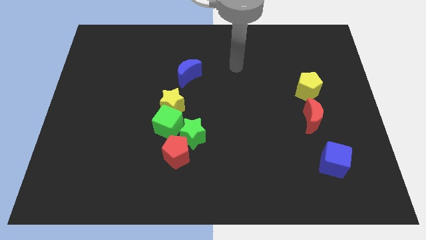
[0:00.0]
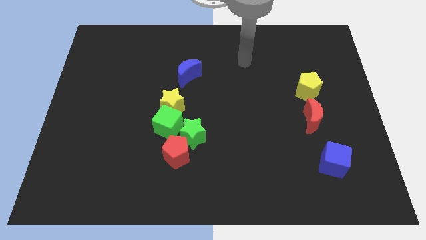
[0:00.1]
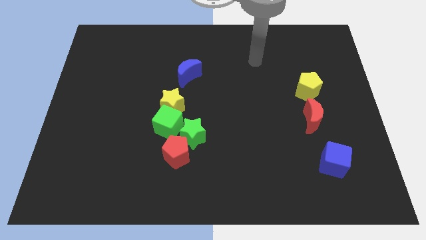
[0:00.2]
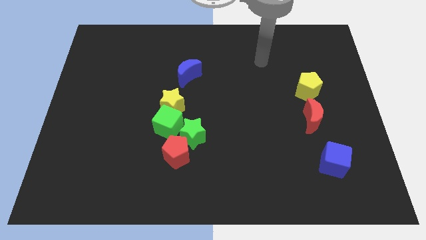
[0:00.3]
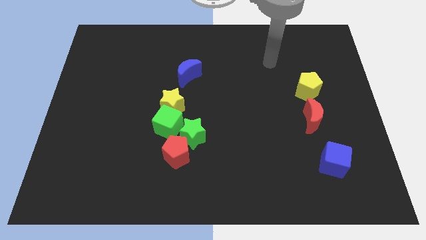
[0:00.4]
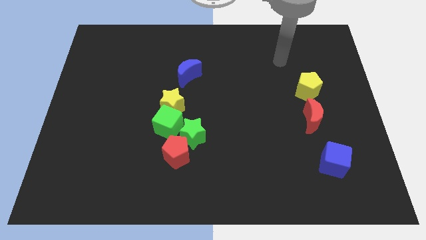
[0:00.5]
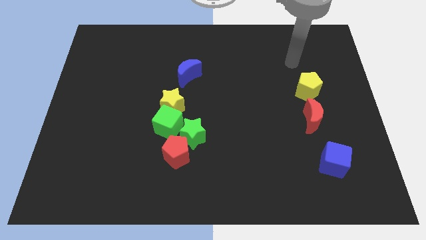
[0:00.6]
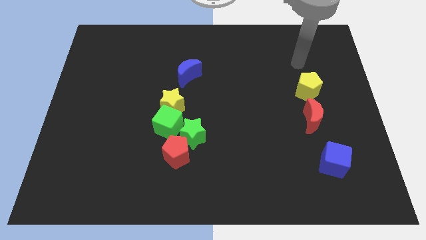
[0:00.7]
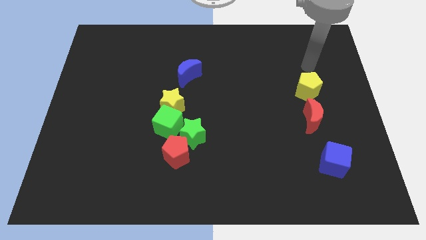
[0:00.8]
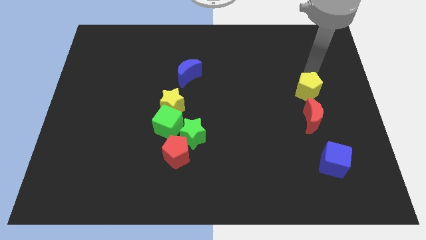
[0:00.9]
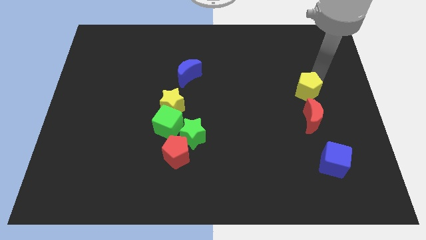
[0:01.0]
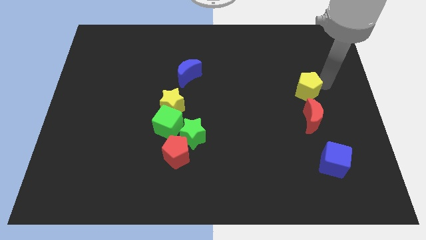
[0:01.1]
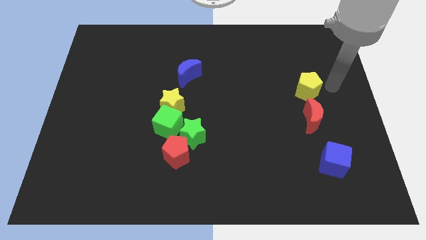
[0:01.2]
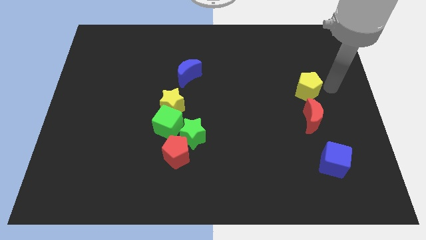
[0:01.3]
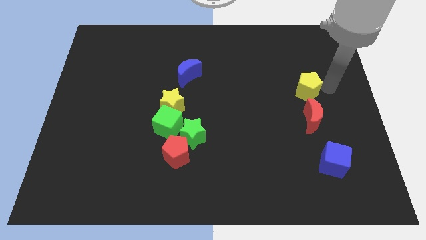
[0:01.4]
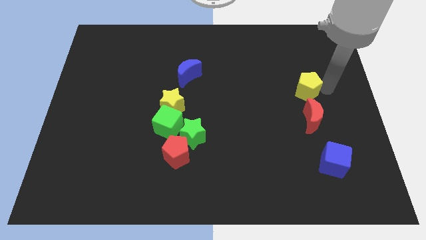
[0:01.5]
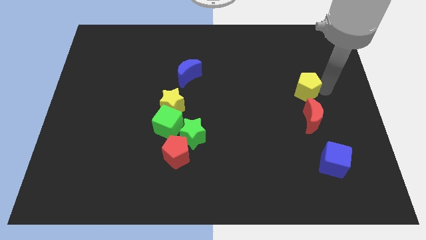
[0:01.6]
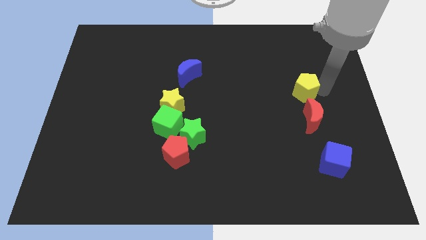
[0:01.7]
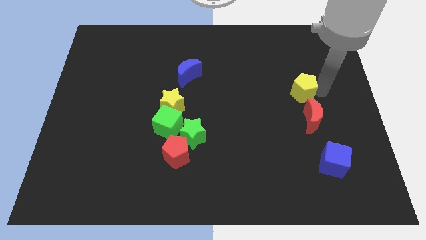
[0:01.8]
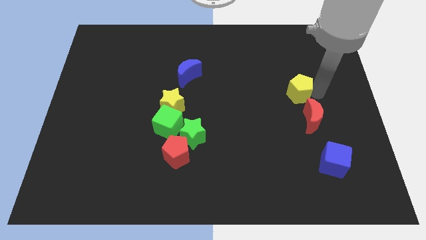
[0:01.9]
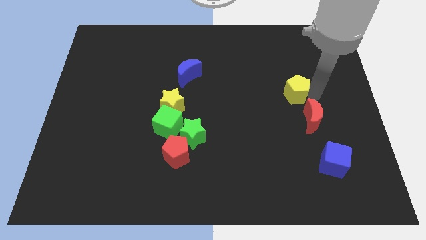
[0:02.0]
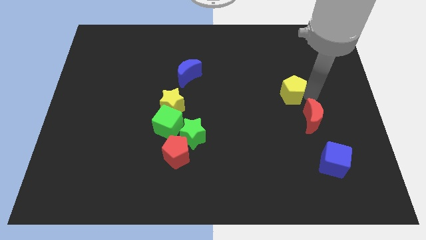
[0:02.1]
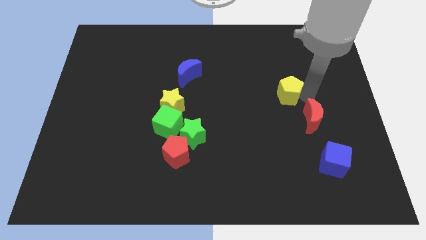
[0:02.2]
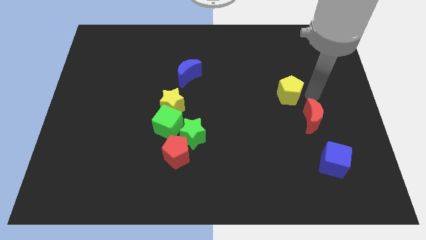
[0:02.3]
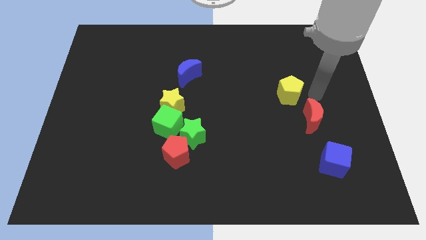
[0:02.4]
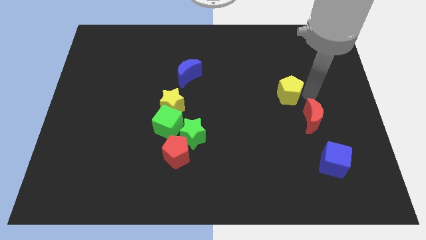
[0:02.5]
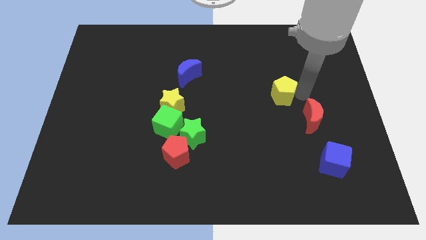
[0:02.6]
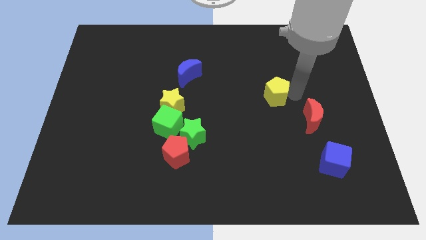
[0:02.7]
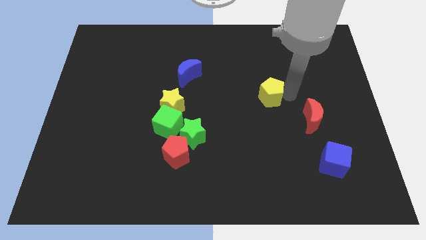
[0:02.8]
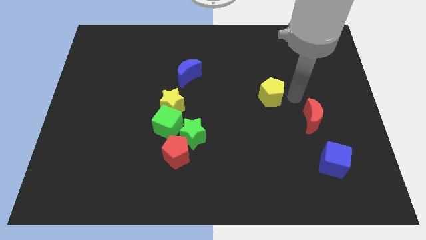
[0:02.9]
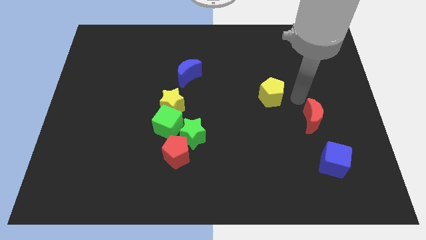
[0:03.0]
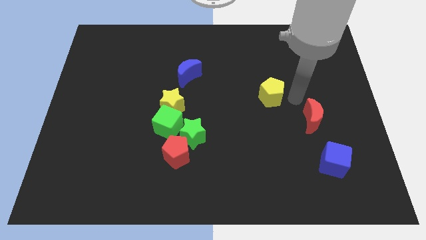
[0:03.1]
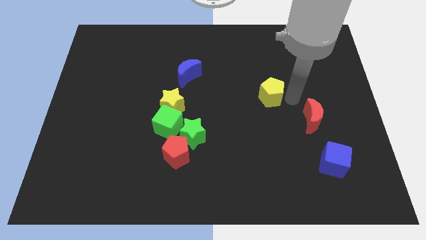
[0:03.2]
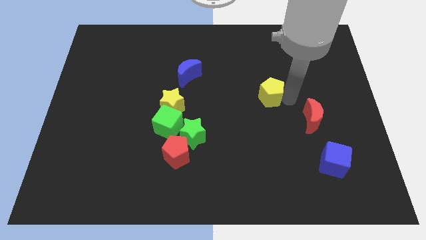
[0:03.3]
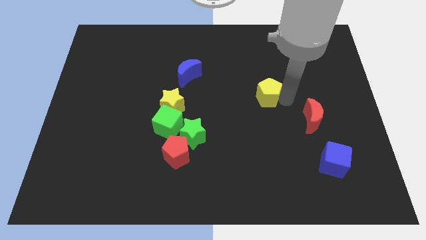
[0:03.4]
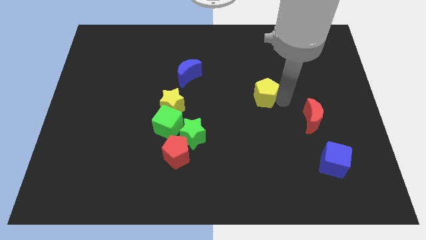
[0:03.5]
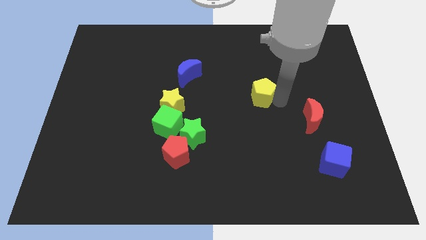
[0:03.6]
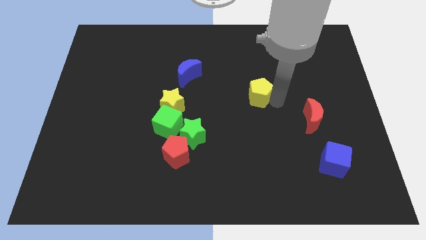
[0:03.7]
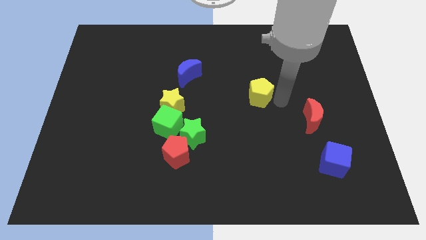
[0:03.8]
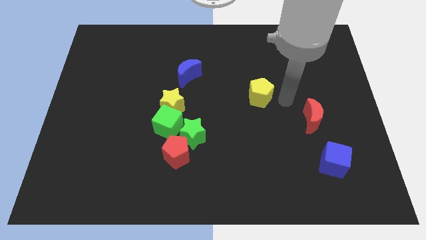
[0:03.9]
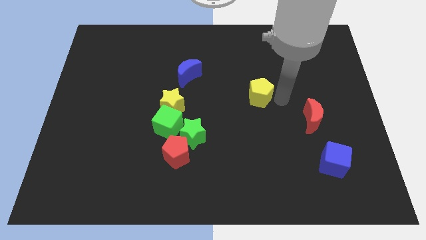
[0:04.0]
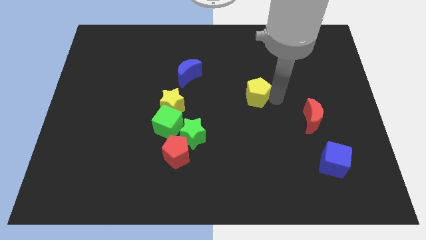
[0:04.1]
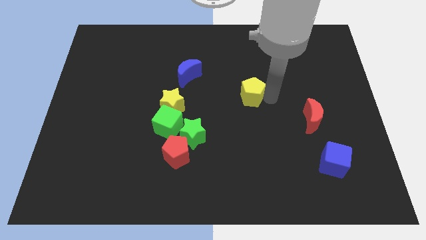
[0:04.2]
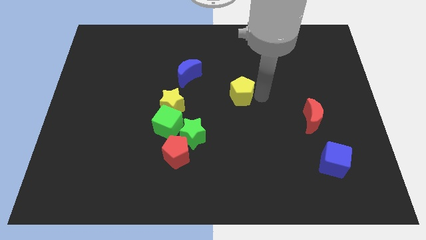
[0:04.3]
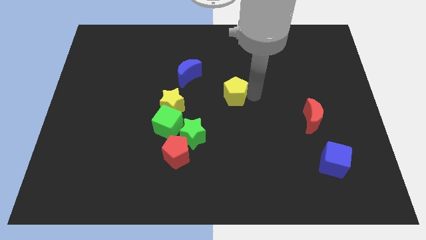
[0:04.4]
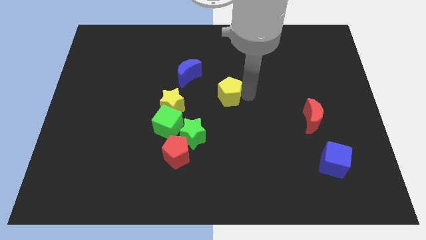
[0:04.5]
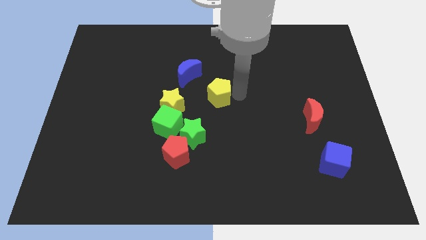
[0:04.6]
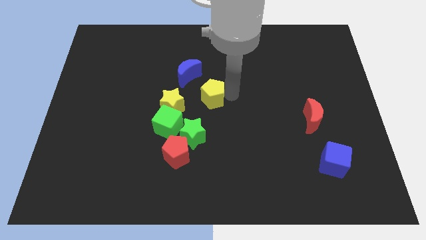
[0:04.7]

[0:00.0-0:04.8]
move the yellow pentagon to the top of the green star

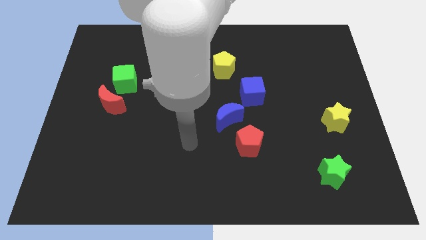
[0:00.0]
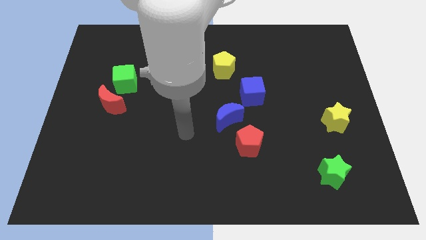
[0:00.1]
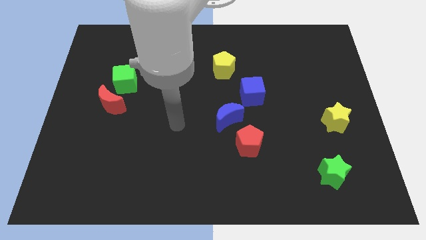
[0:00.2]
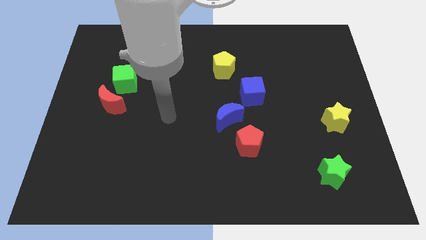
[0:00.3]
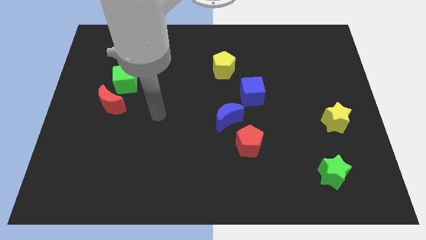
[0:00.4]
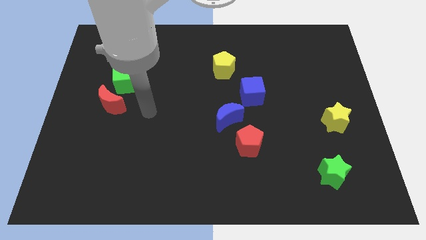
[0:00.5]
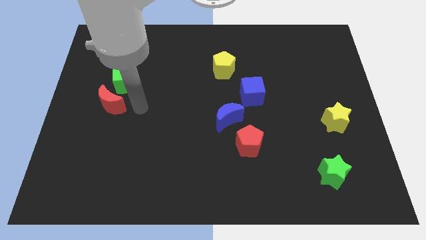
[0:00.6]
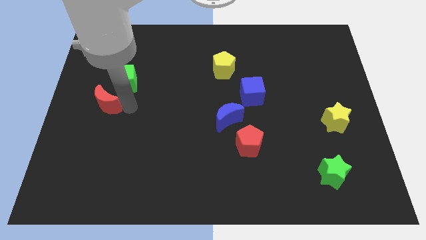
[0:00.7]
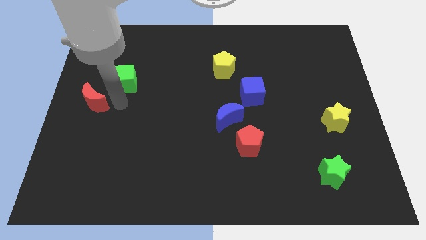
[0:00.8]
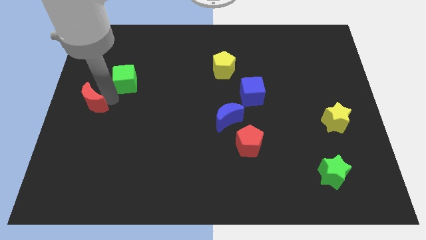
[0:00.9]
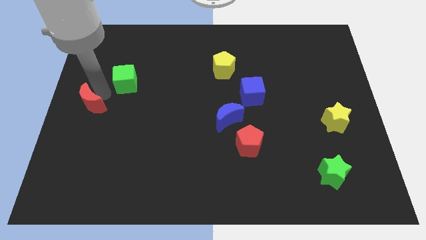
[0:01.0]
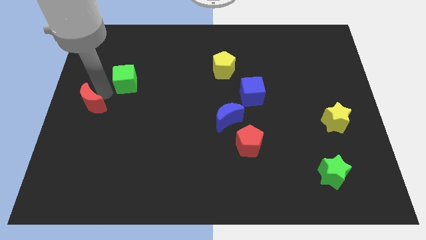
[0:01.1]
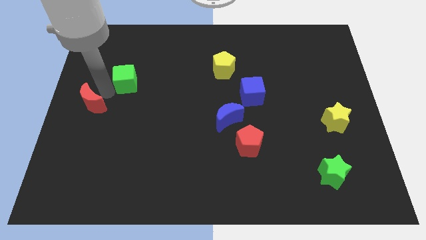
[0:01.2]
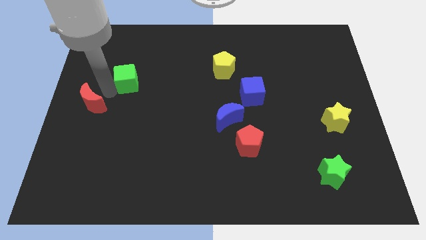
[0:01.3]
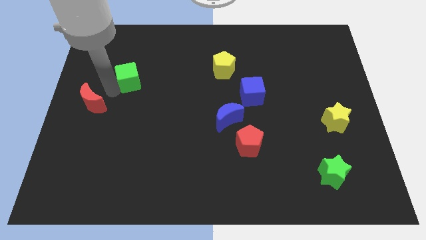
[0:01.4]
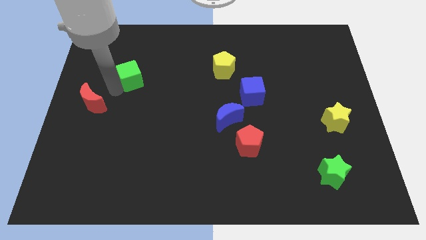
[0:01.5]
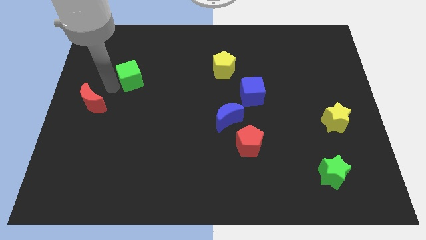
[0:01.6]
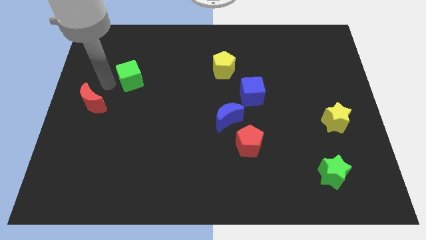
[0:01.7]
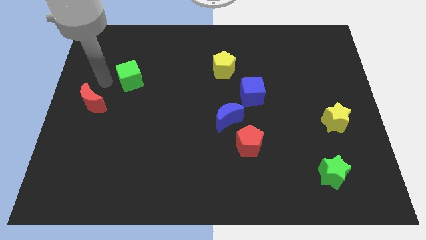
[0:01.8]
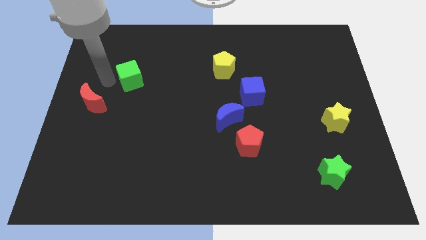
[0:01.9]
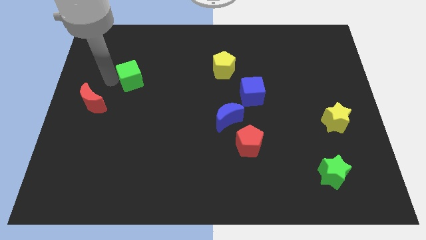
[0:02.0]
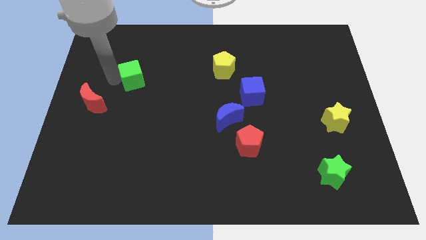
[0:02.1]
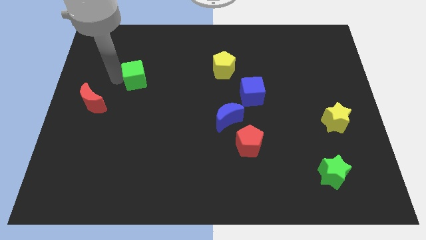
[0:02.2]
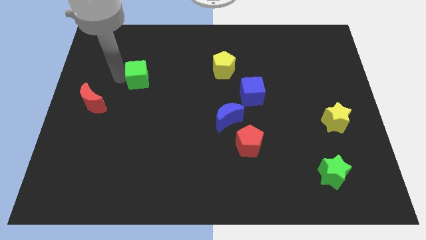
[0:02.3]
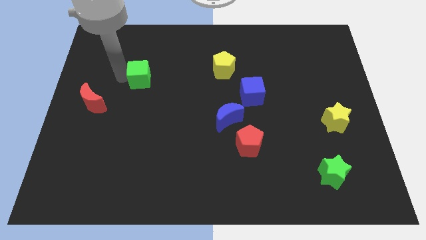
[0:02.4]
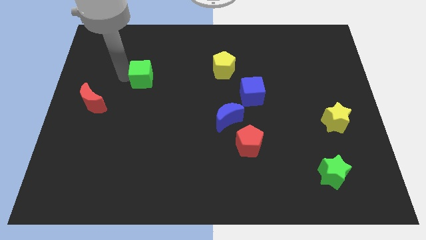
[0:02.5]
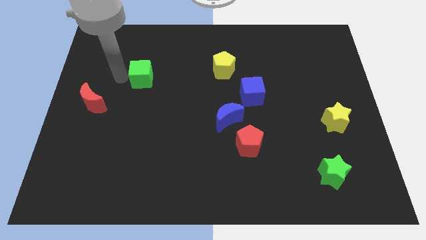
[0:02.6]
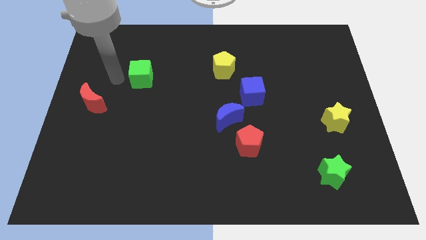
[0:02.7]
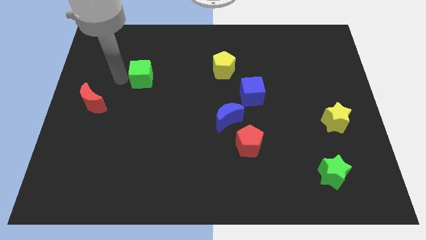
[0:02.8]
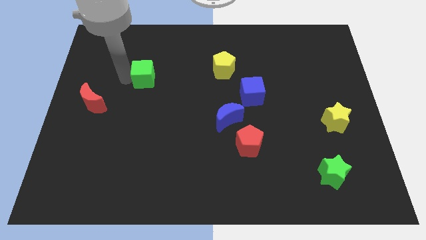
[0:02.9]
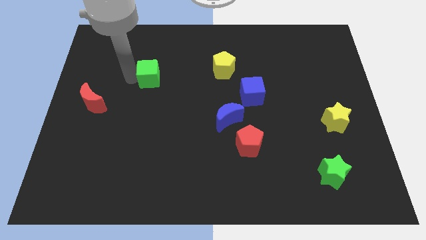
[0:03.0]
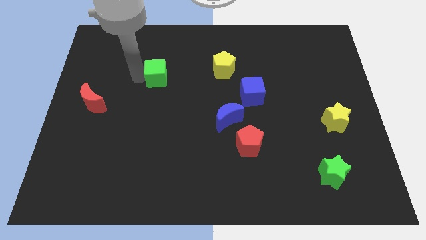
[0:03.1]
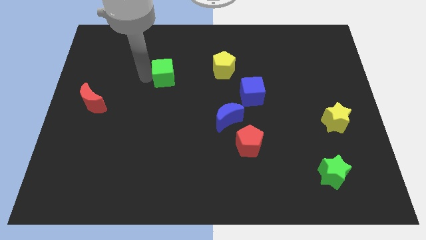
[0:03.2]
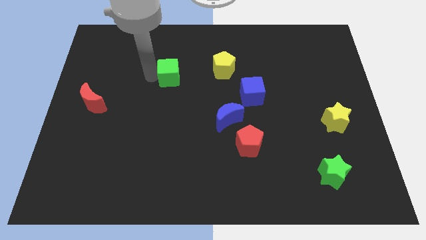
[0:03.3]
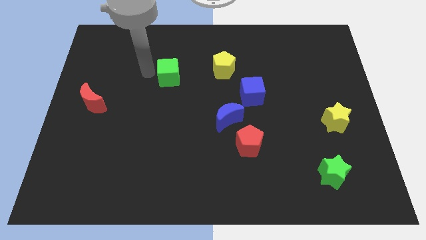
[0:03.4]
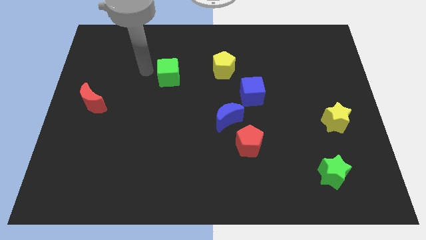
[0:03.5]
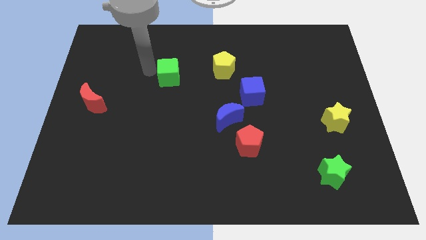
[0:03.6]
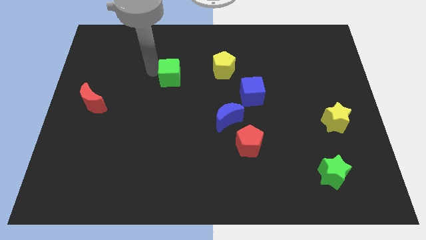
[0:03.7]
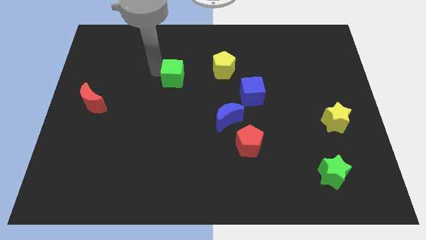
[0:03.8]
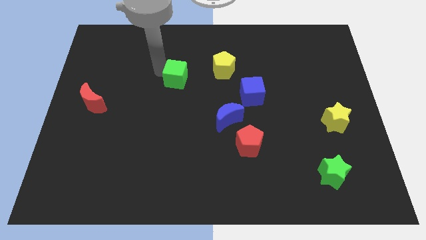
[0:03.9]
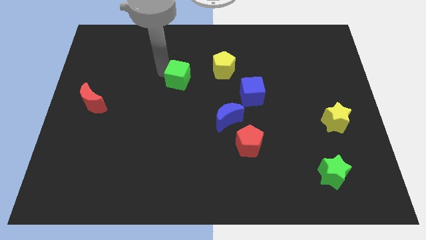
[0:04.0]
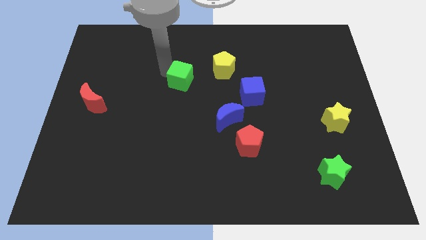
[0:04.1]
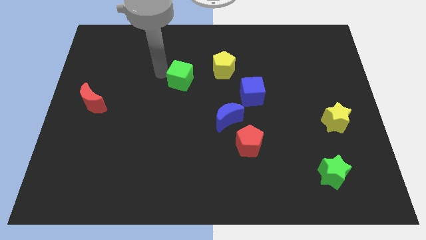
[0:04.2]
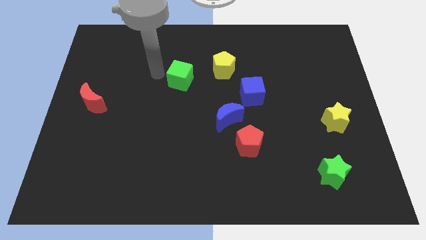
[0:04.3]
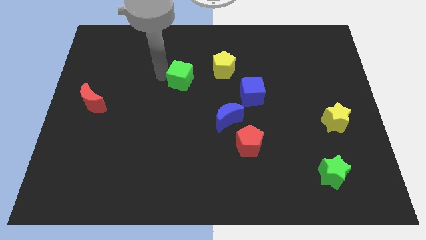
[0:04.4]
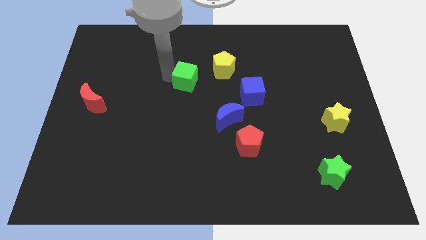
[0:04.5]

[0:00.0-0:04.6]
move the green cube to the bottom left of the yellow pentagon
